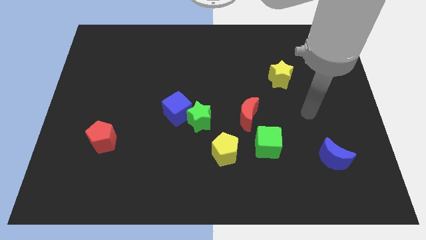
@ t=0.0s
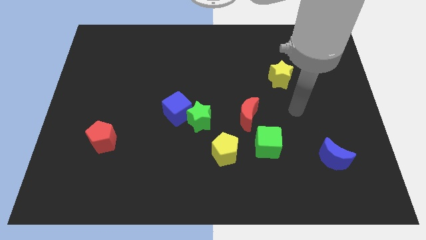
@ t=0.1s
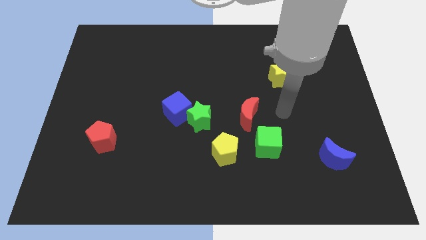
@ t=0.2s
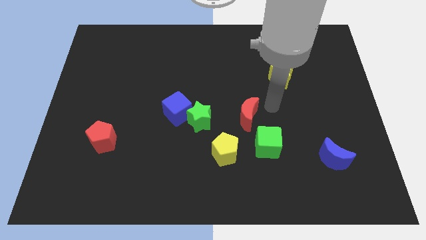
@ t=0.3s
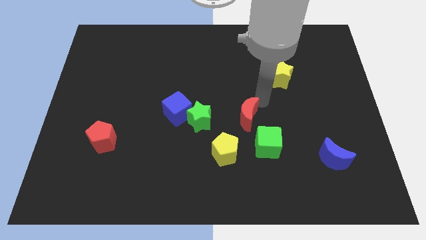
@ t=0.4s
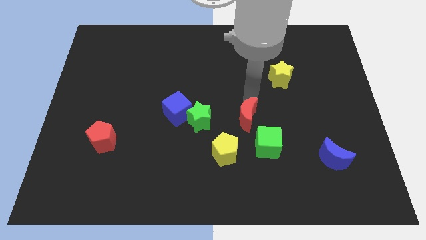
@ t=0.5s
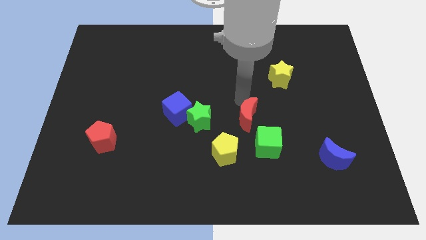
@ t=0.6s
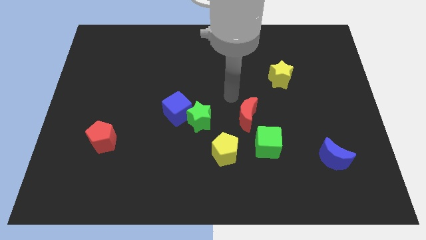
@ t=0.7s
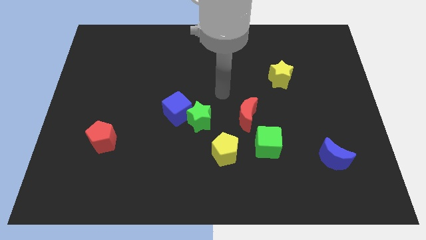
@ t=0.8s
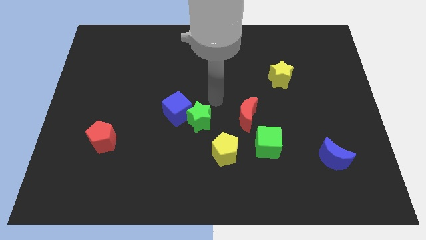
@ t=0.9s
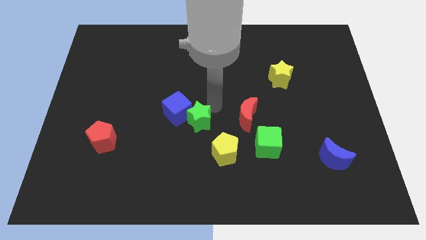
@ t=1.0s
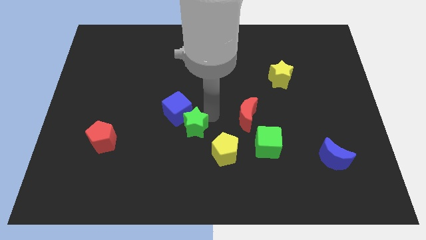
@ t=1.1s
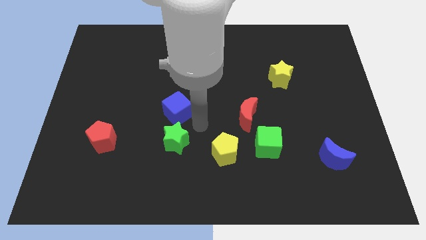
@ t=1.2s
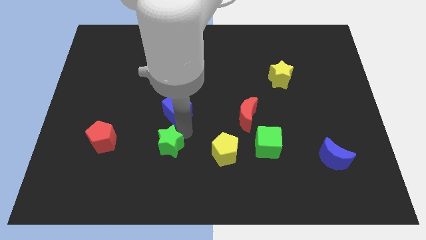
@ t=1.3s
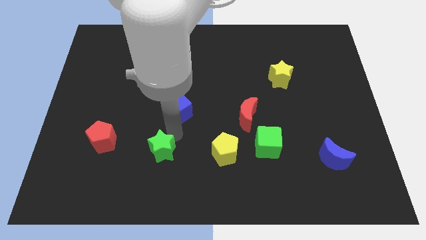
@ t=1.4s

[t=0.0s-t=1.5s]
pull the blue cube apart from the green star

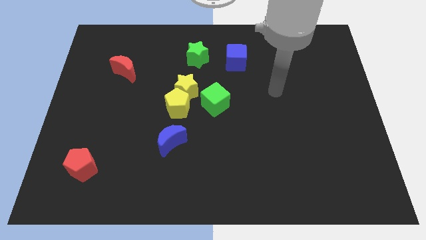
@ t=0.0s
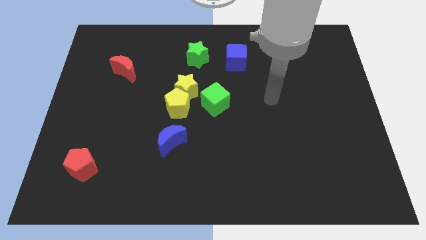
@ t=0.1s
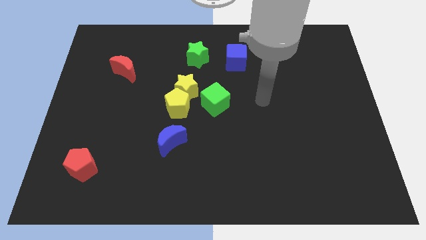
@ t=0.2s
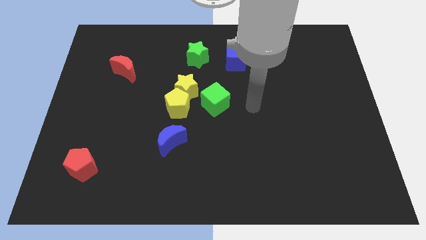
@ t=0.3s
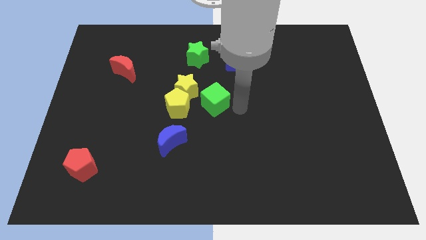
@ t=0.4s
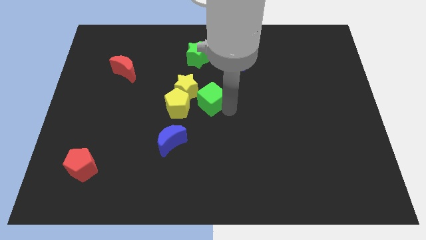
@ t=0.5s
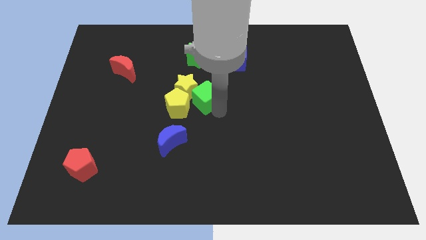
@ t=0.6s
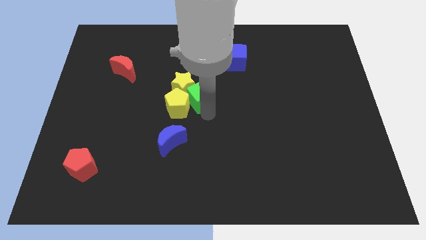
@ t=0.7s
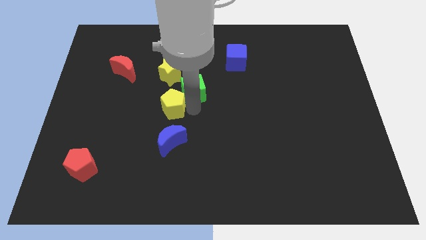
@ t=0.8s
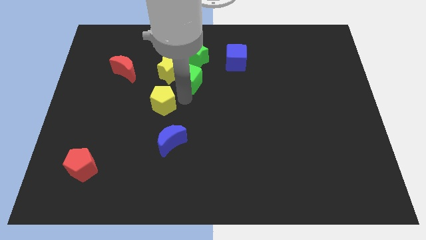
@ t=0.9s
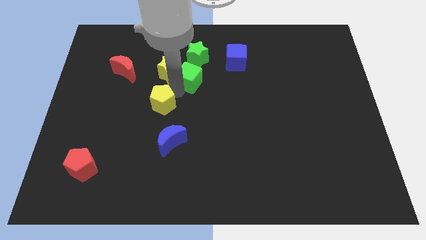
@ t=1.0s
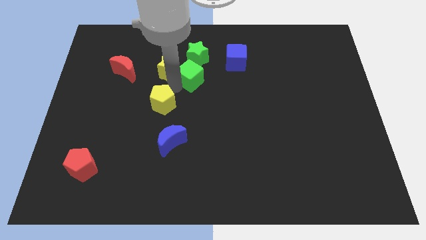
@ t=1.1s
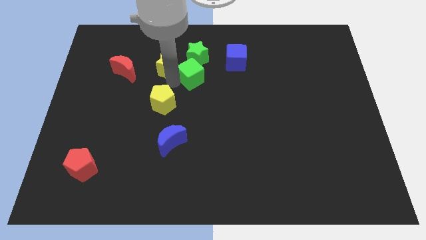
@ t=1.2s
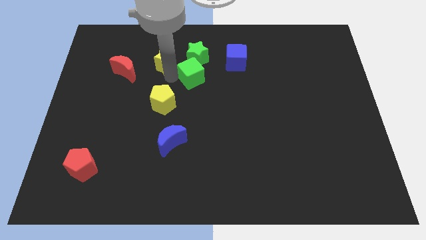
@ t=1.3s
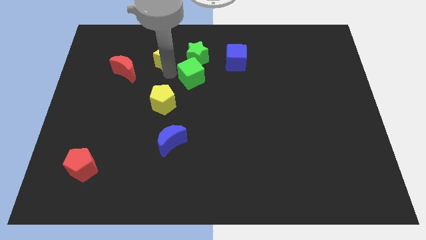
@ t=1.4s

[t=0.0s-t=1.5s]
move the yellow star away from the yellow pentagon and green cube

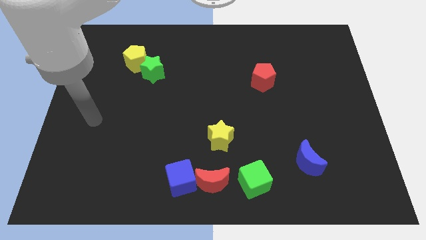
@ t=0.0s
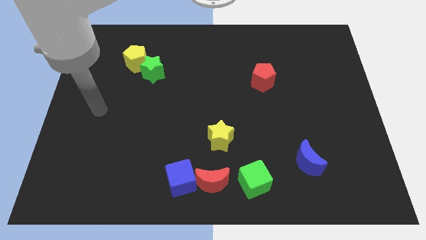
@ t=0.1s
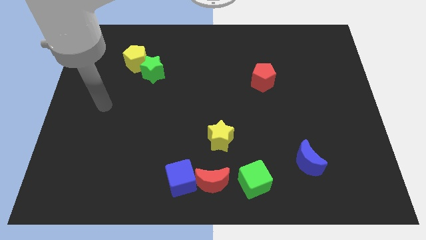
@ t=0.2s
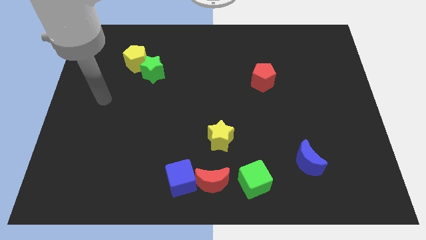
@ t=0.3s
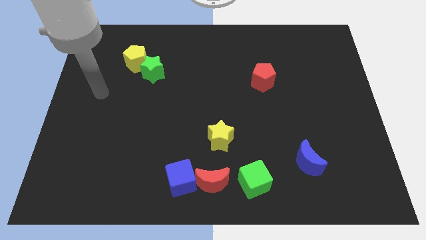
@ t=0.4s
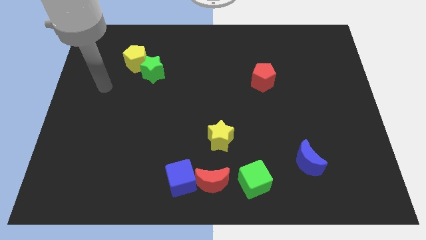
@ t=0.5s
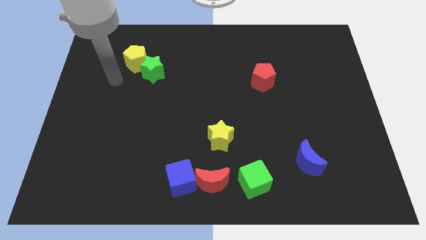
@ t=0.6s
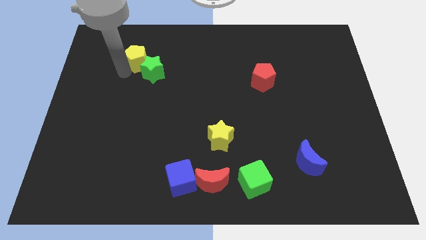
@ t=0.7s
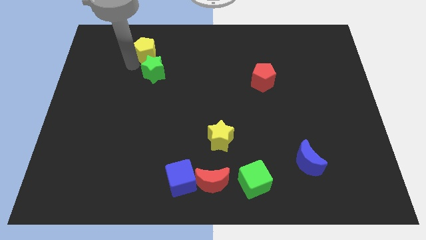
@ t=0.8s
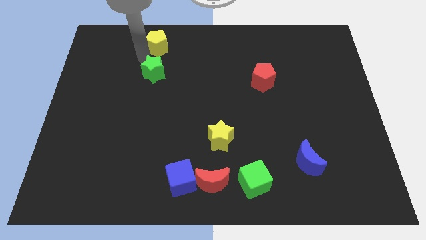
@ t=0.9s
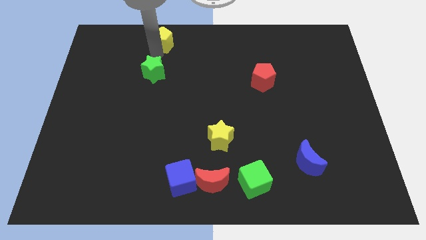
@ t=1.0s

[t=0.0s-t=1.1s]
pull the green star apart from the yellow pentagon

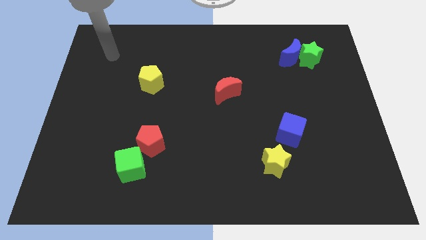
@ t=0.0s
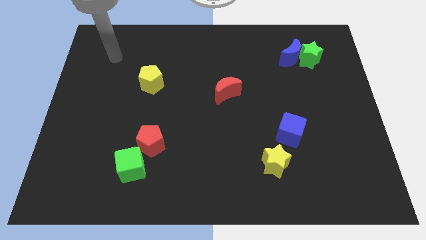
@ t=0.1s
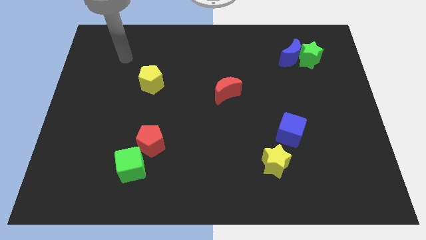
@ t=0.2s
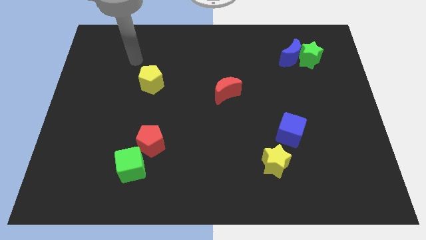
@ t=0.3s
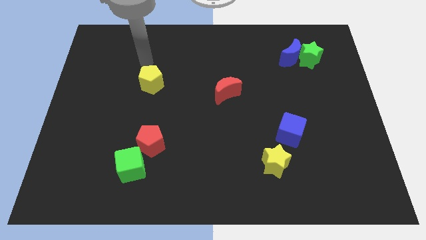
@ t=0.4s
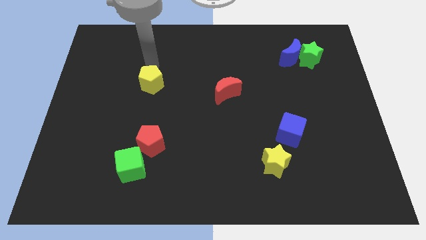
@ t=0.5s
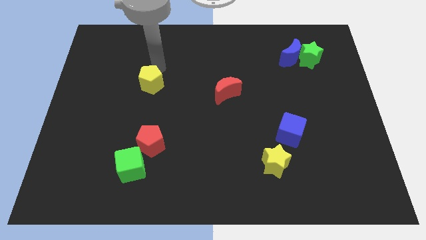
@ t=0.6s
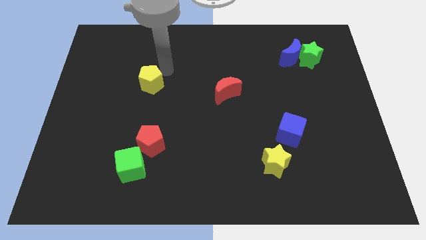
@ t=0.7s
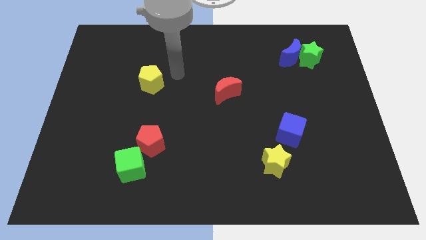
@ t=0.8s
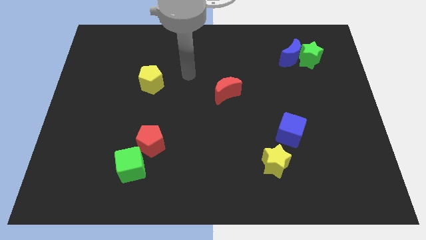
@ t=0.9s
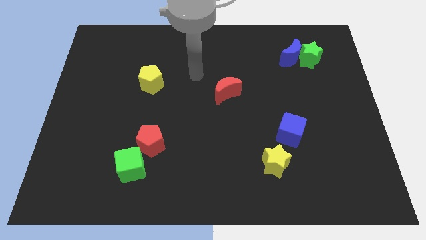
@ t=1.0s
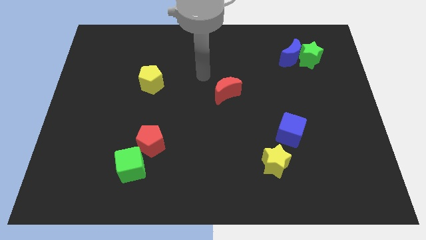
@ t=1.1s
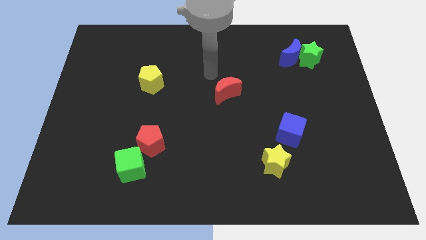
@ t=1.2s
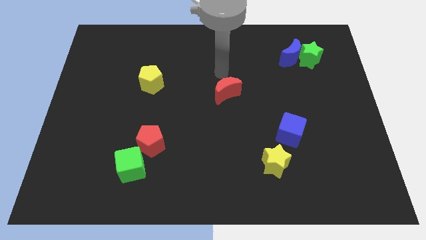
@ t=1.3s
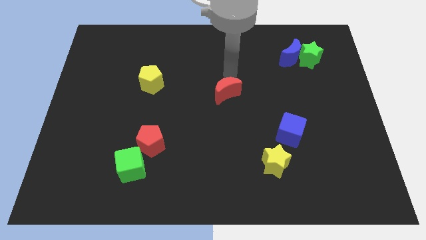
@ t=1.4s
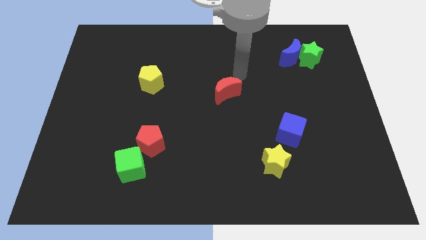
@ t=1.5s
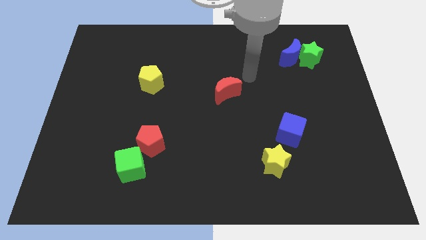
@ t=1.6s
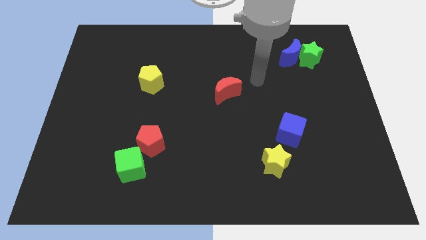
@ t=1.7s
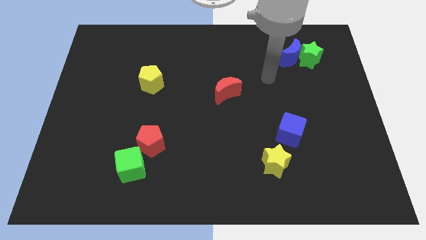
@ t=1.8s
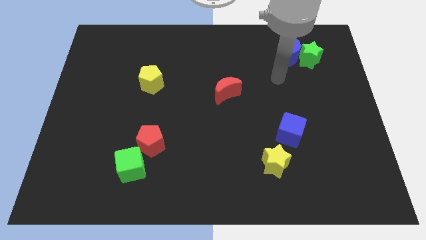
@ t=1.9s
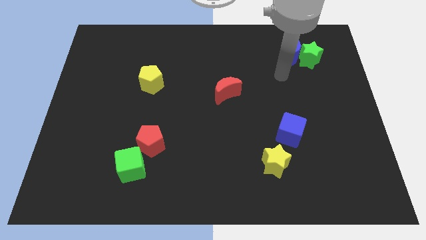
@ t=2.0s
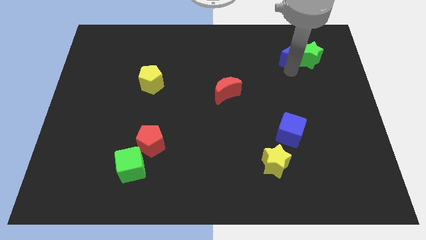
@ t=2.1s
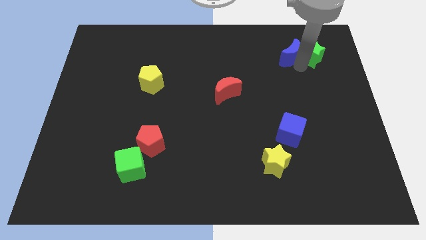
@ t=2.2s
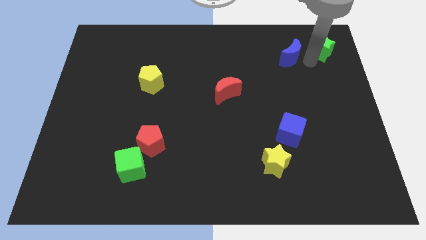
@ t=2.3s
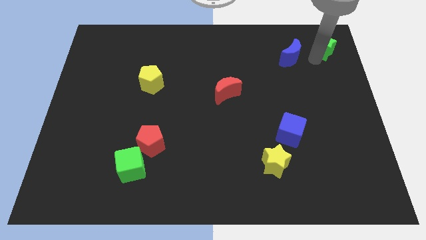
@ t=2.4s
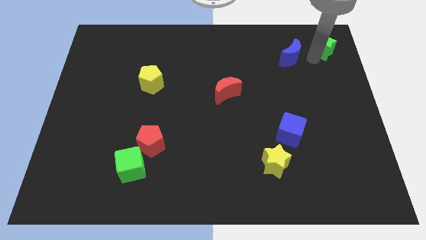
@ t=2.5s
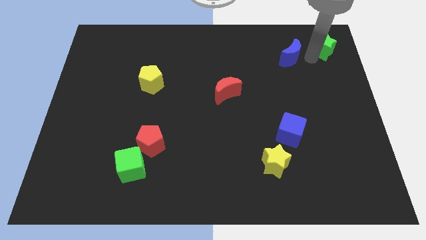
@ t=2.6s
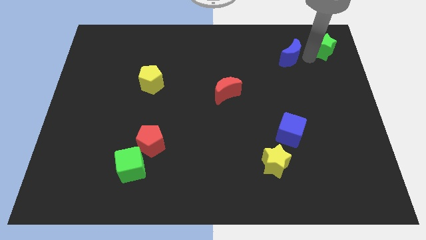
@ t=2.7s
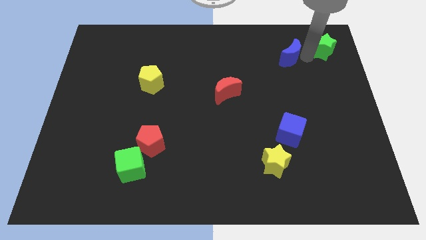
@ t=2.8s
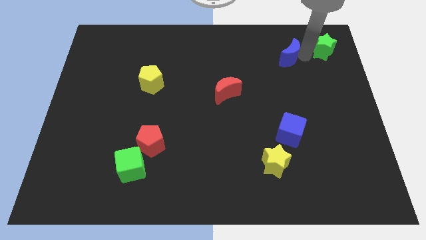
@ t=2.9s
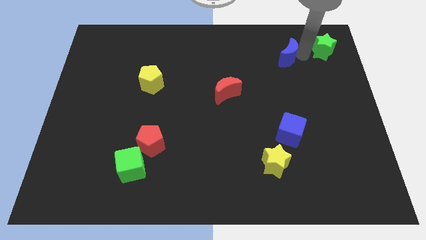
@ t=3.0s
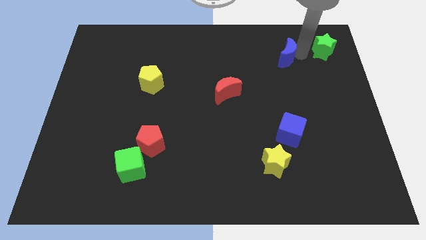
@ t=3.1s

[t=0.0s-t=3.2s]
move the blue moon away from the green star

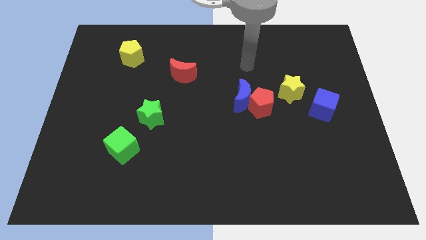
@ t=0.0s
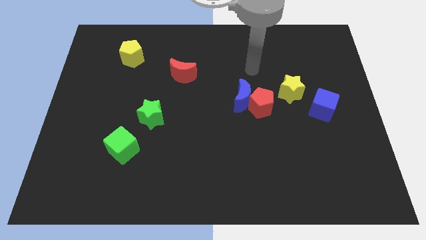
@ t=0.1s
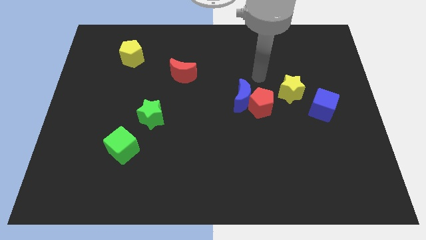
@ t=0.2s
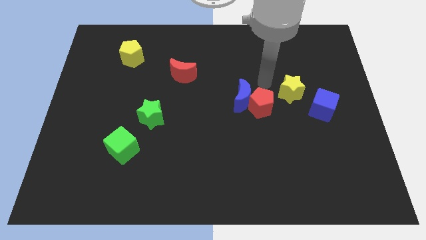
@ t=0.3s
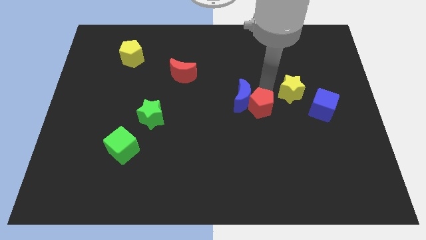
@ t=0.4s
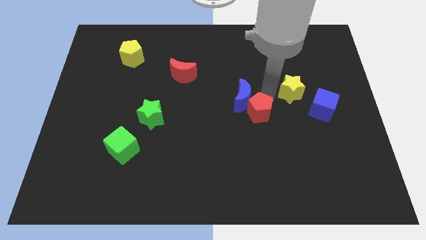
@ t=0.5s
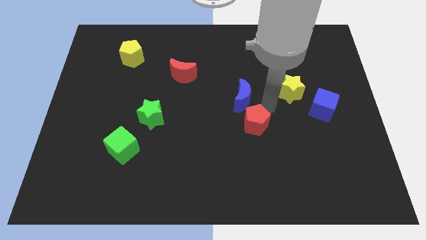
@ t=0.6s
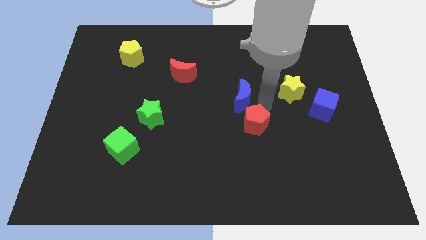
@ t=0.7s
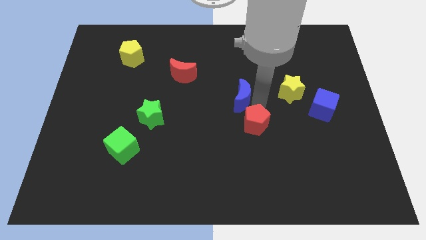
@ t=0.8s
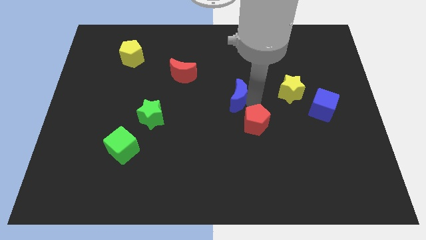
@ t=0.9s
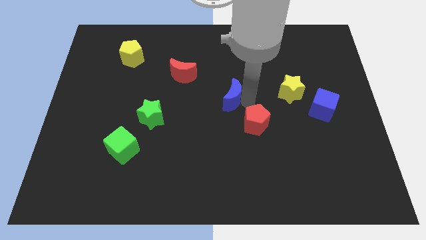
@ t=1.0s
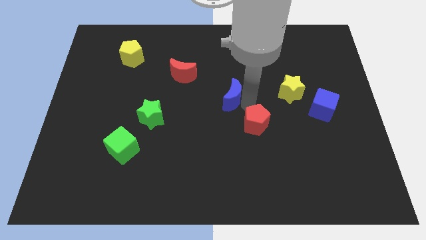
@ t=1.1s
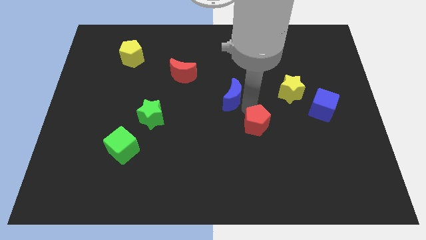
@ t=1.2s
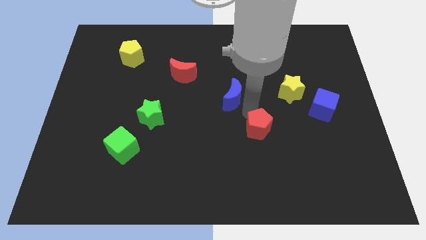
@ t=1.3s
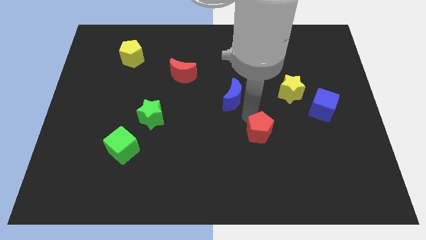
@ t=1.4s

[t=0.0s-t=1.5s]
pull the blue moon apart from the red pentagon

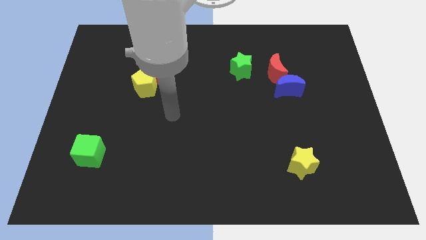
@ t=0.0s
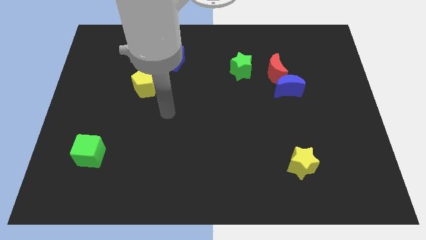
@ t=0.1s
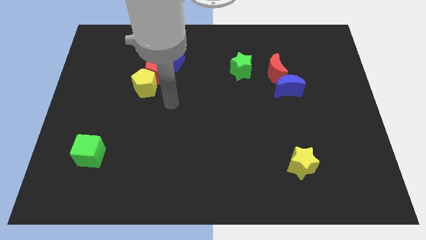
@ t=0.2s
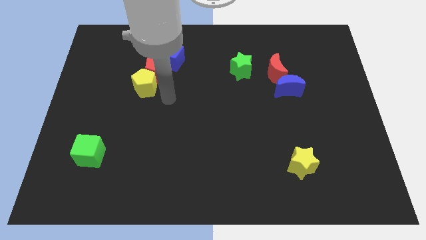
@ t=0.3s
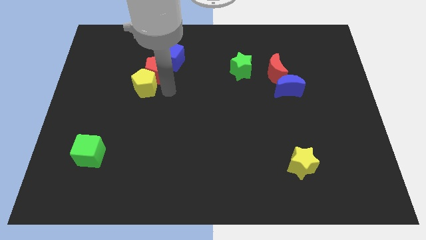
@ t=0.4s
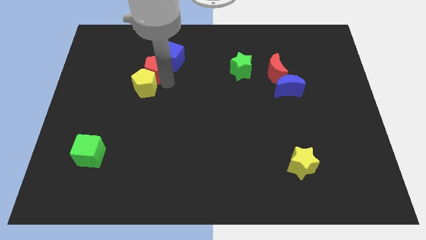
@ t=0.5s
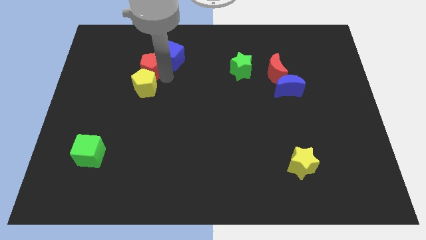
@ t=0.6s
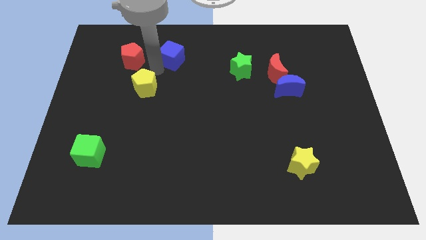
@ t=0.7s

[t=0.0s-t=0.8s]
separate the yellow pentagon from the red pentagon
